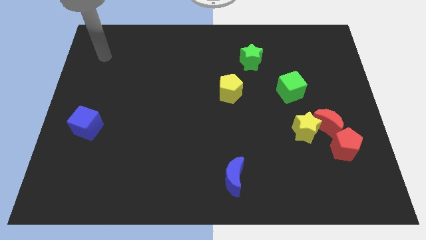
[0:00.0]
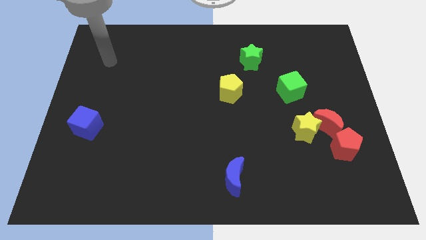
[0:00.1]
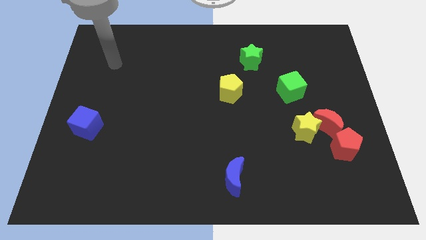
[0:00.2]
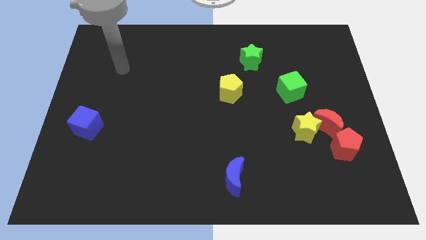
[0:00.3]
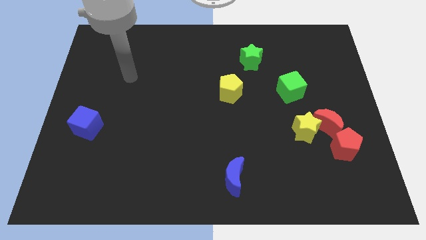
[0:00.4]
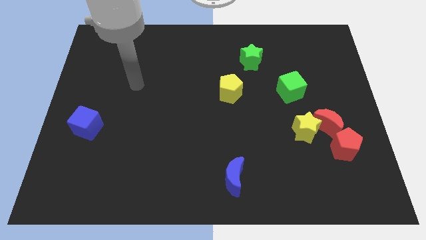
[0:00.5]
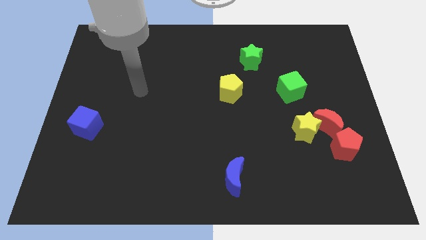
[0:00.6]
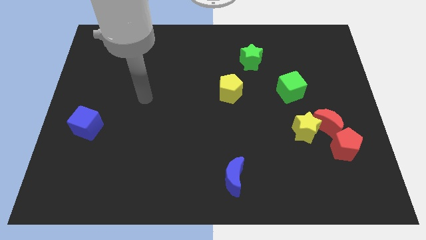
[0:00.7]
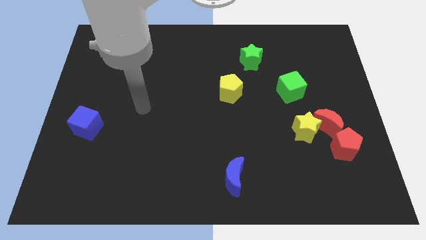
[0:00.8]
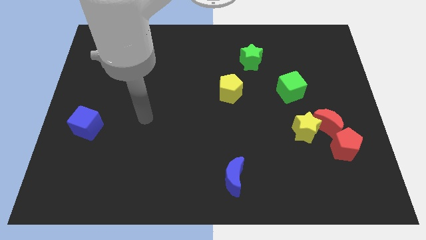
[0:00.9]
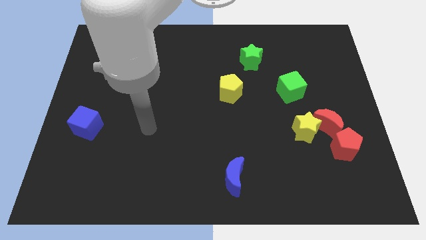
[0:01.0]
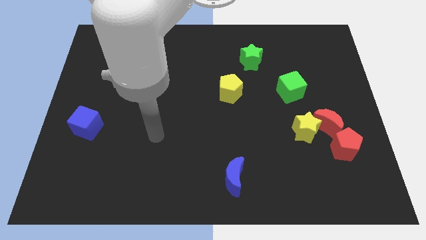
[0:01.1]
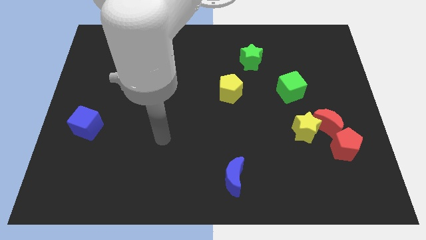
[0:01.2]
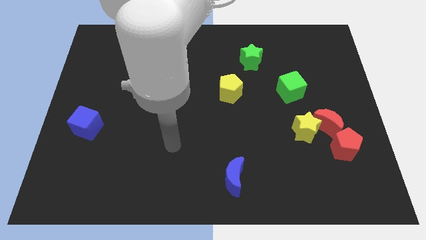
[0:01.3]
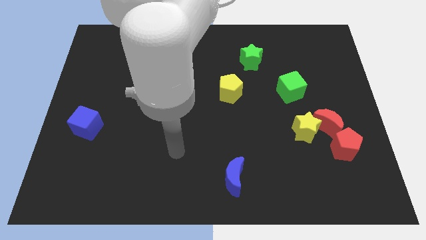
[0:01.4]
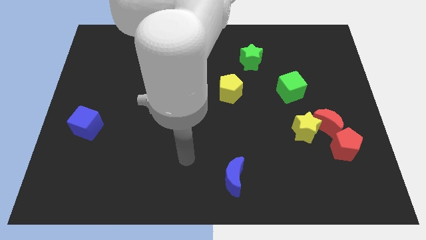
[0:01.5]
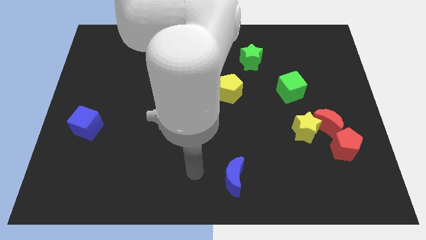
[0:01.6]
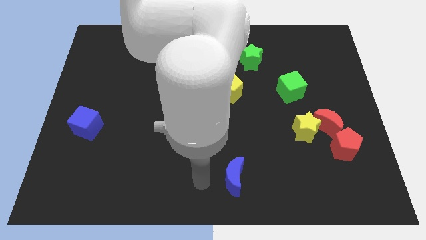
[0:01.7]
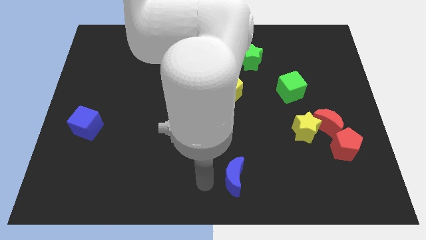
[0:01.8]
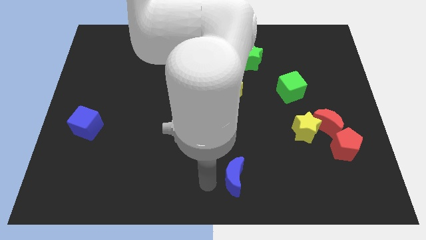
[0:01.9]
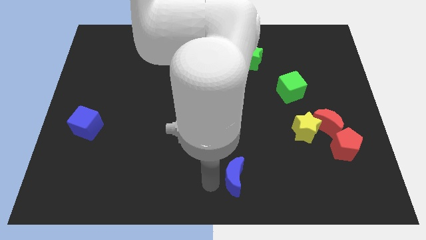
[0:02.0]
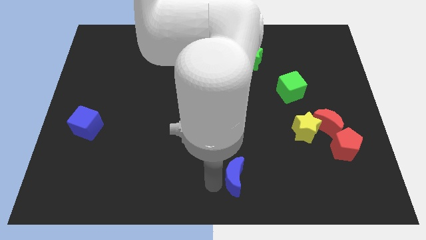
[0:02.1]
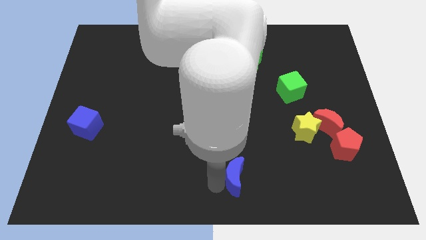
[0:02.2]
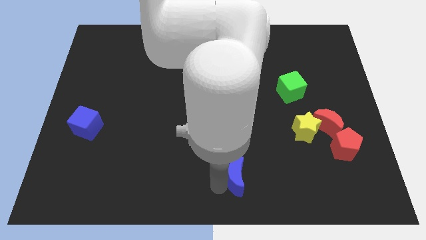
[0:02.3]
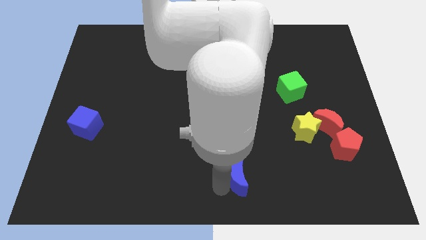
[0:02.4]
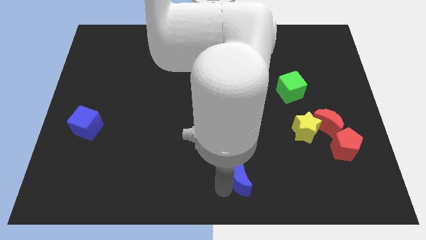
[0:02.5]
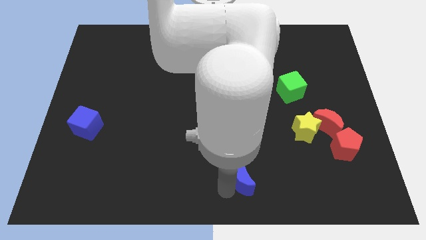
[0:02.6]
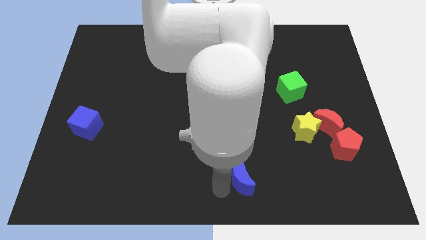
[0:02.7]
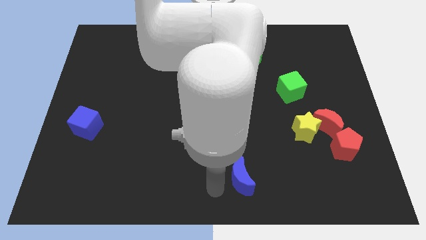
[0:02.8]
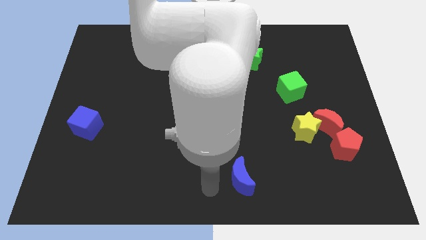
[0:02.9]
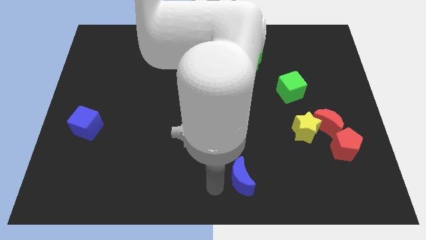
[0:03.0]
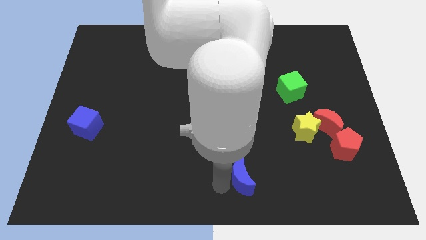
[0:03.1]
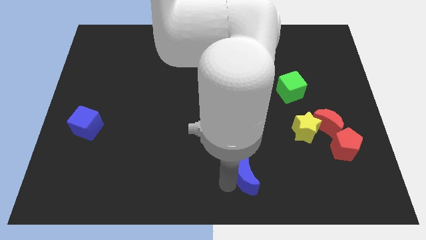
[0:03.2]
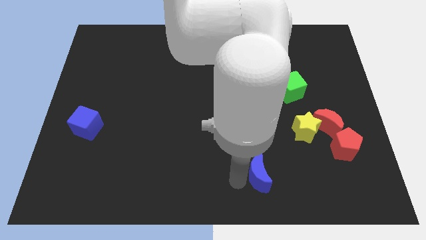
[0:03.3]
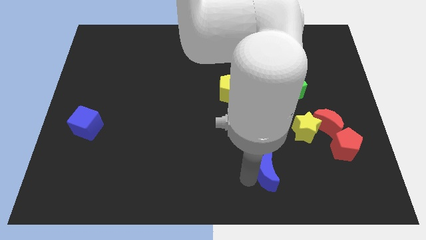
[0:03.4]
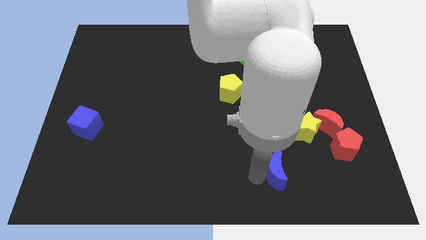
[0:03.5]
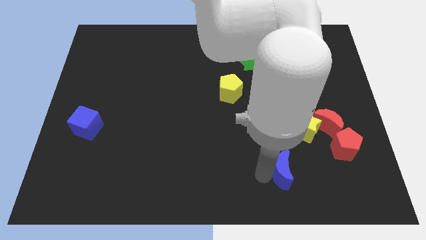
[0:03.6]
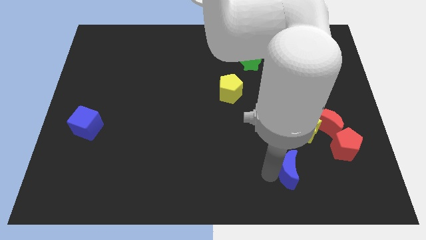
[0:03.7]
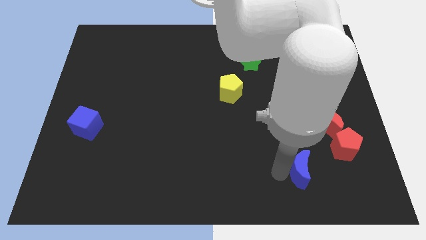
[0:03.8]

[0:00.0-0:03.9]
move the blue moon to the bottom left side of the red pentagon

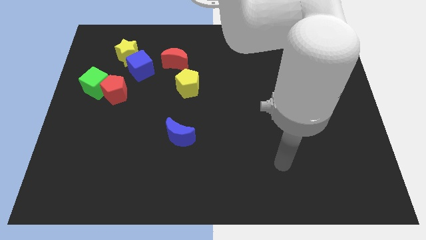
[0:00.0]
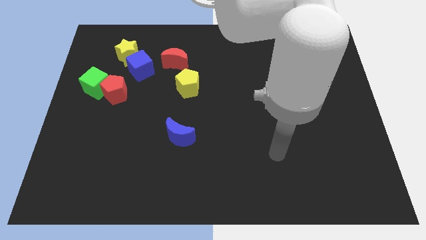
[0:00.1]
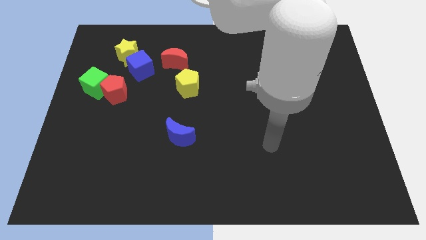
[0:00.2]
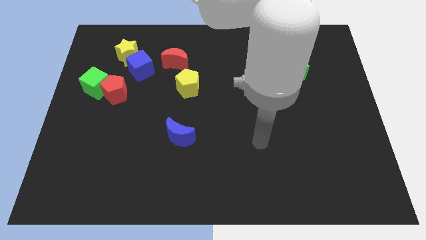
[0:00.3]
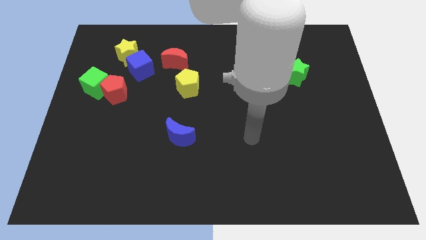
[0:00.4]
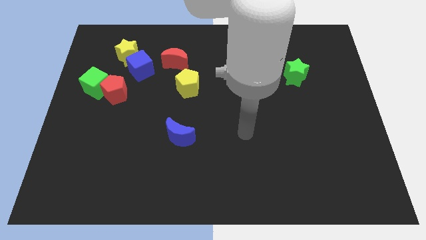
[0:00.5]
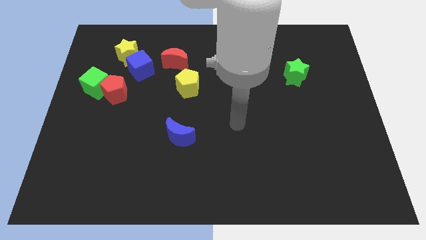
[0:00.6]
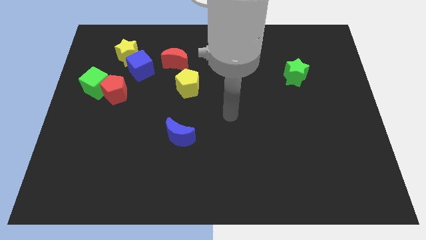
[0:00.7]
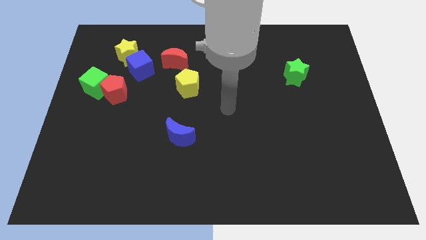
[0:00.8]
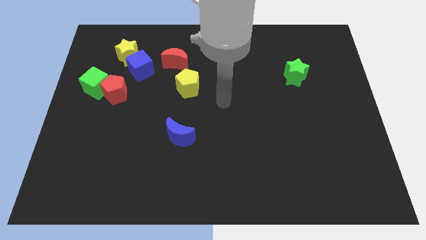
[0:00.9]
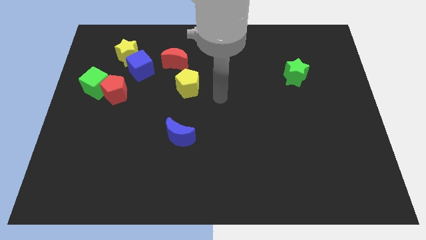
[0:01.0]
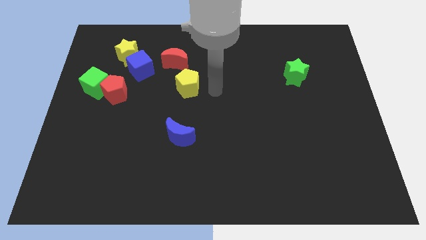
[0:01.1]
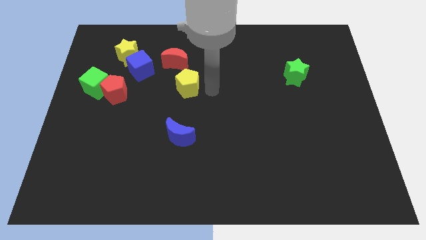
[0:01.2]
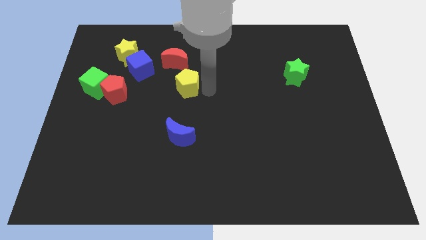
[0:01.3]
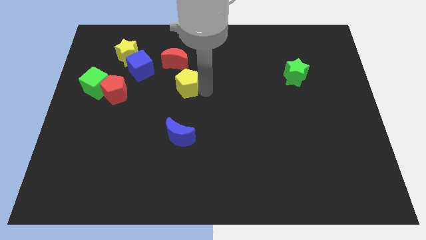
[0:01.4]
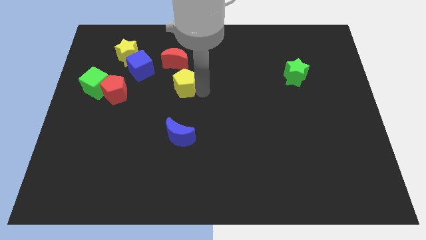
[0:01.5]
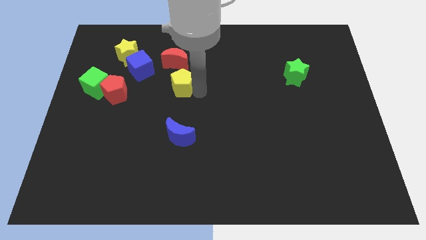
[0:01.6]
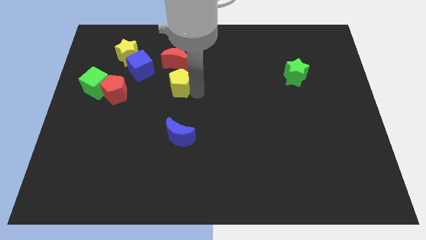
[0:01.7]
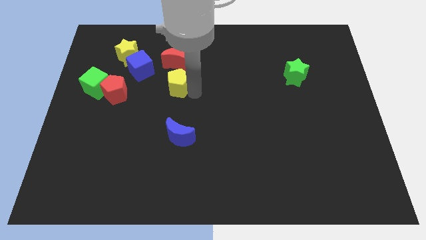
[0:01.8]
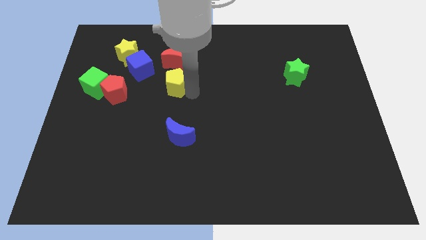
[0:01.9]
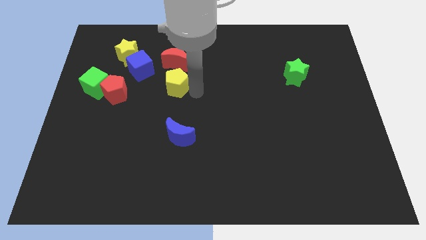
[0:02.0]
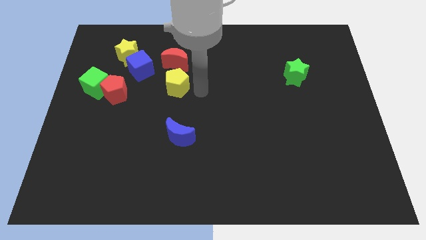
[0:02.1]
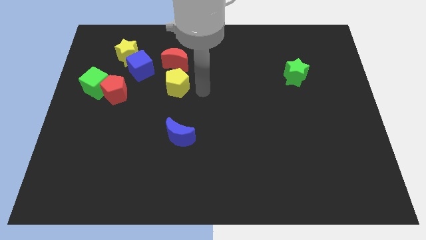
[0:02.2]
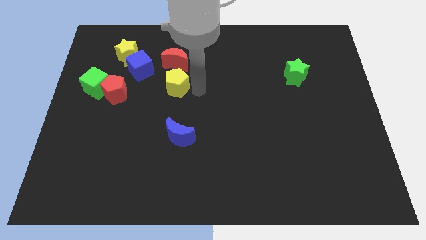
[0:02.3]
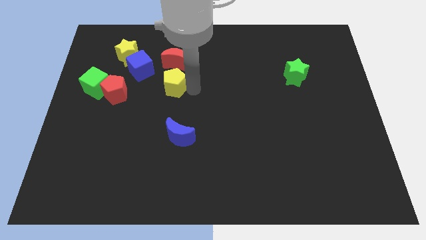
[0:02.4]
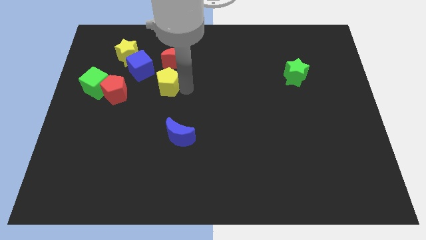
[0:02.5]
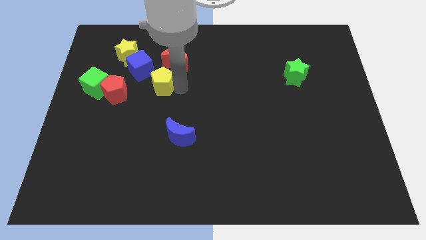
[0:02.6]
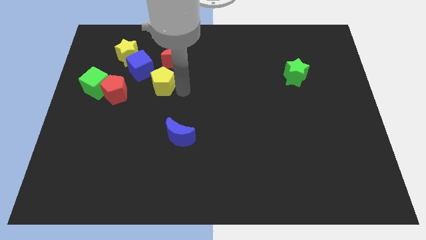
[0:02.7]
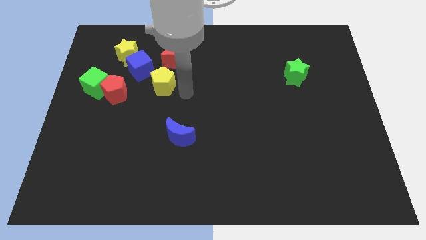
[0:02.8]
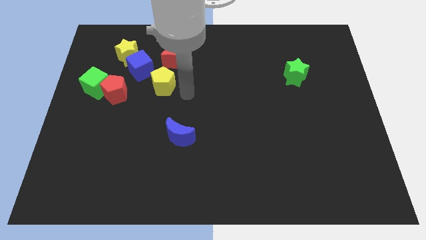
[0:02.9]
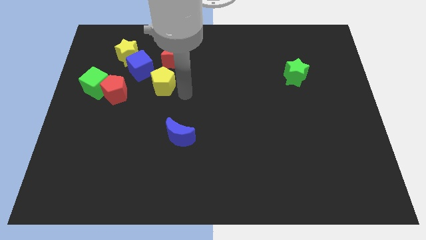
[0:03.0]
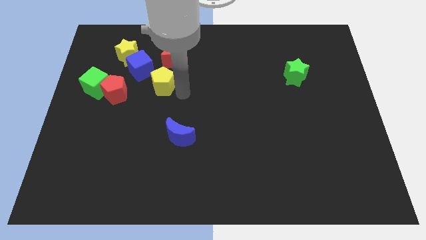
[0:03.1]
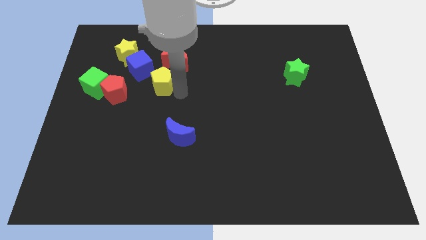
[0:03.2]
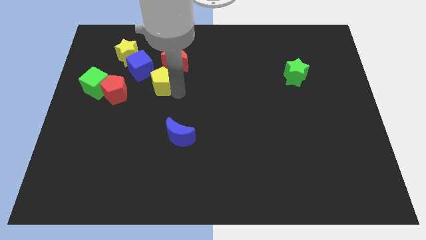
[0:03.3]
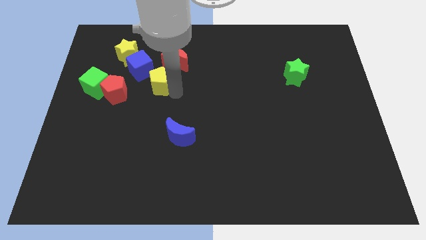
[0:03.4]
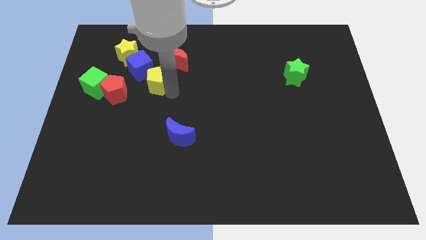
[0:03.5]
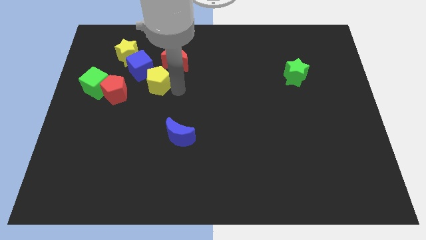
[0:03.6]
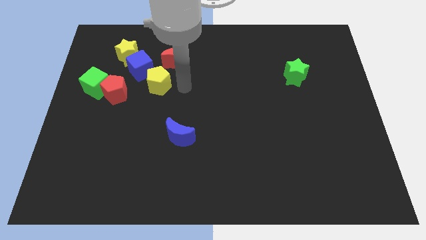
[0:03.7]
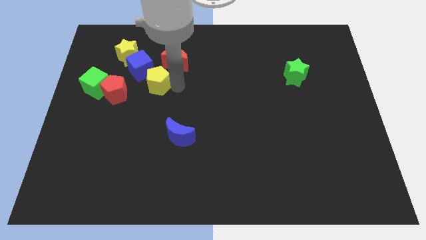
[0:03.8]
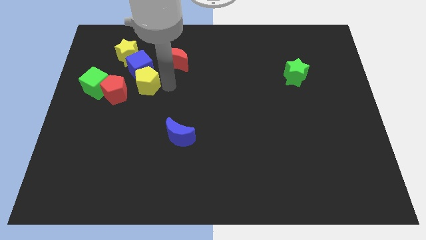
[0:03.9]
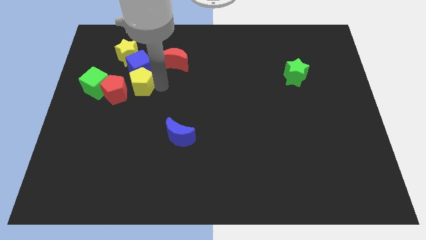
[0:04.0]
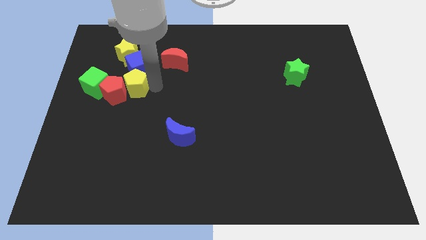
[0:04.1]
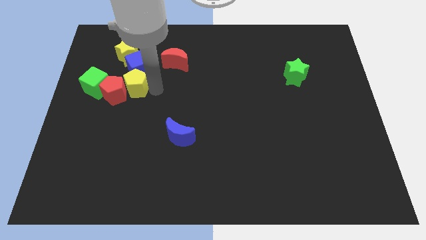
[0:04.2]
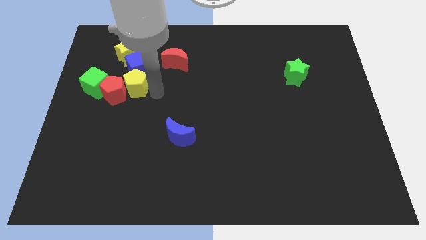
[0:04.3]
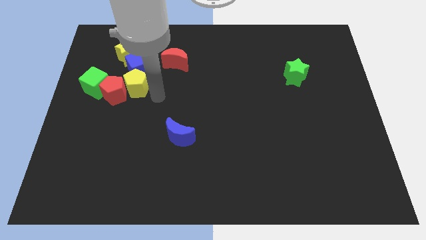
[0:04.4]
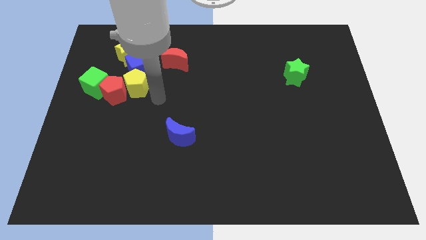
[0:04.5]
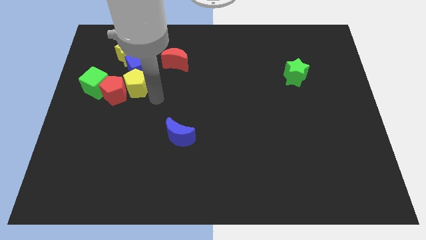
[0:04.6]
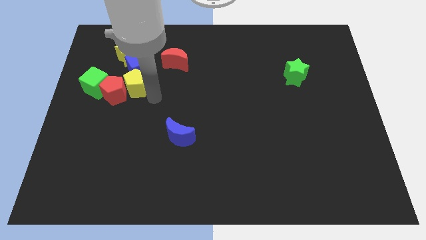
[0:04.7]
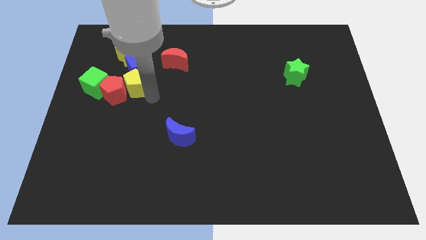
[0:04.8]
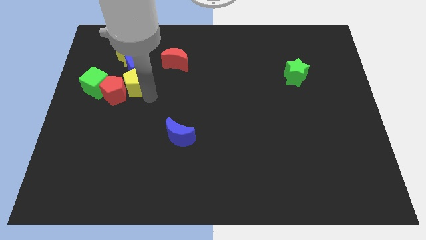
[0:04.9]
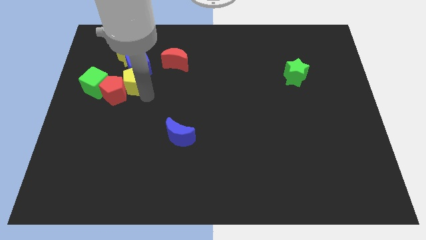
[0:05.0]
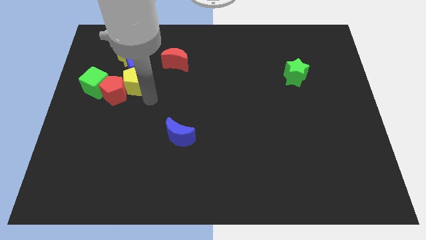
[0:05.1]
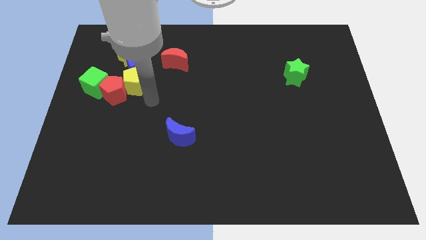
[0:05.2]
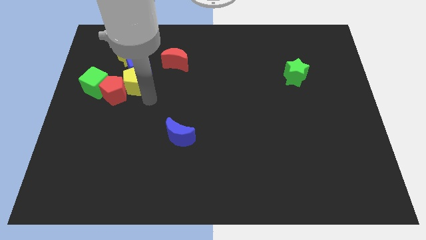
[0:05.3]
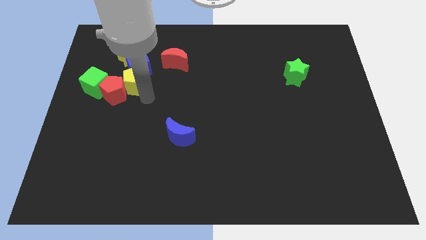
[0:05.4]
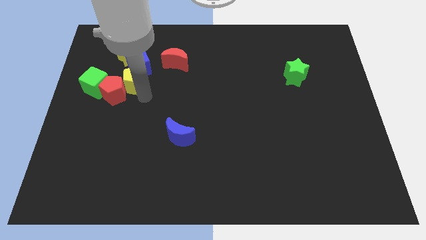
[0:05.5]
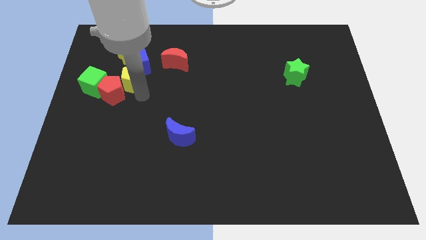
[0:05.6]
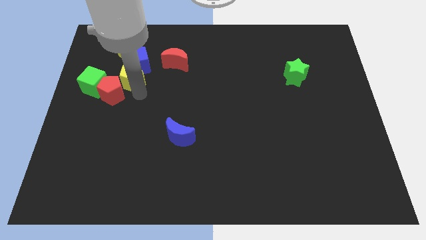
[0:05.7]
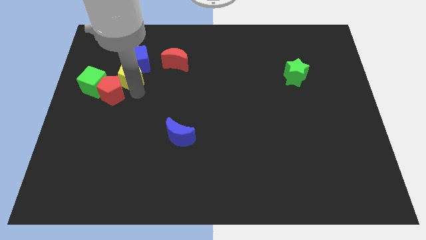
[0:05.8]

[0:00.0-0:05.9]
push the yellow pentagon to the top right of the green cube
